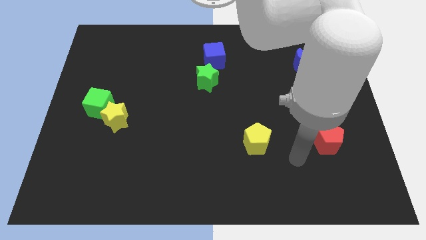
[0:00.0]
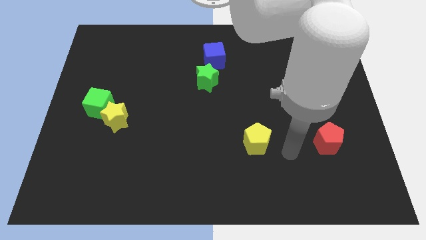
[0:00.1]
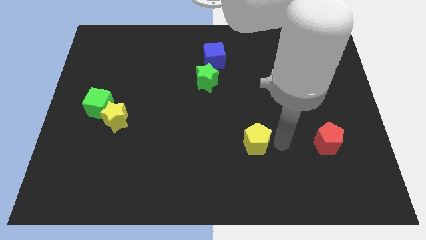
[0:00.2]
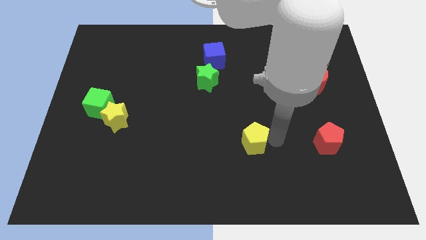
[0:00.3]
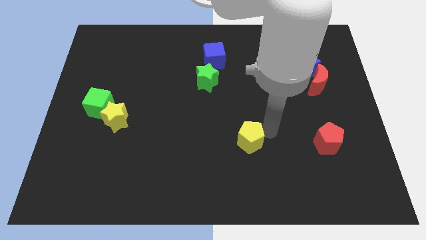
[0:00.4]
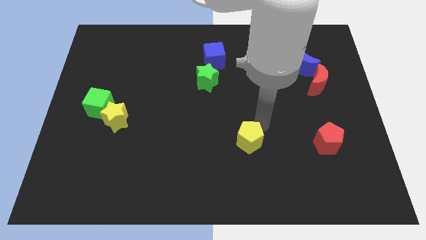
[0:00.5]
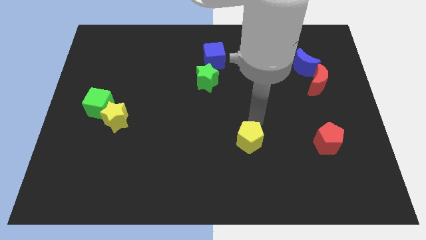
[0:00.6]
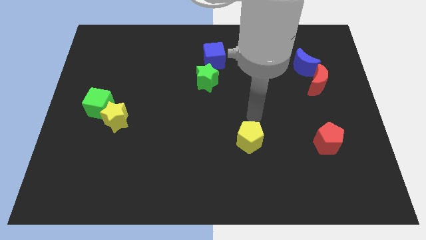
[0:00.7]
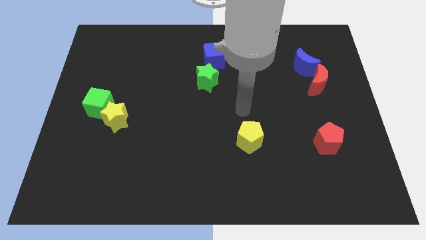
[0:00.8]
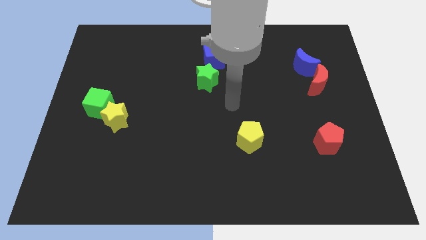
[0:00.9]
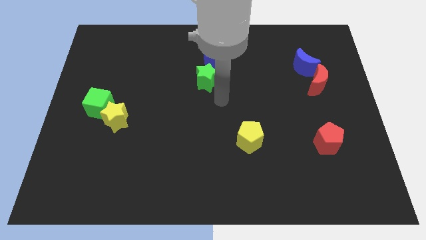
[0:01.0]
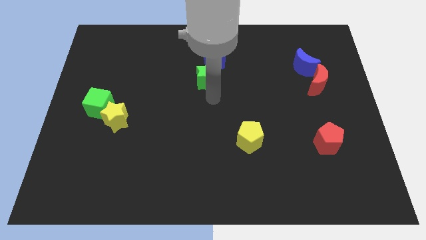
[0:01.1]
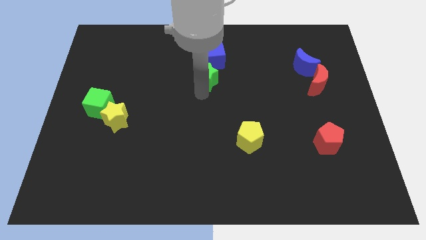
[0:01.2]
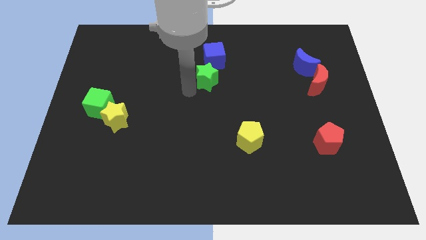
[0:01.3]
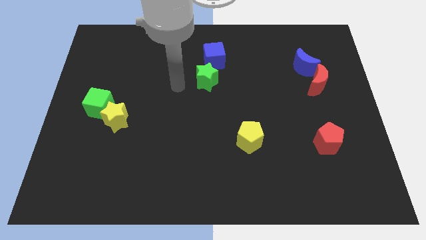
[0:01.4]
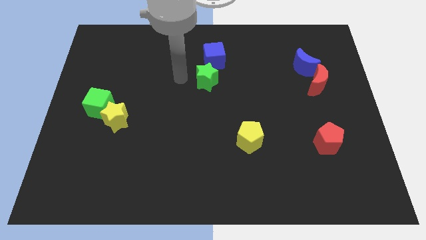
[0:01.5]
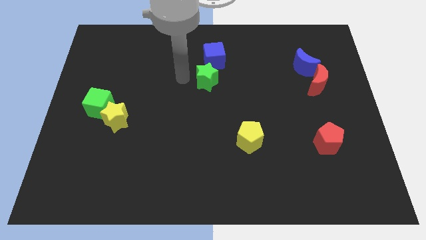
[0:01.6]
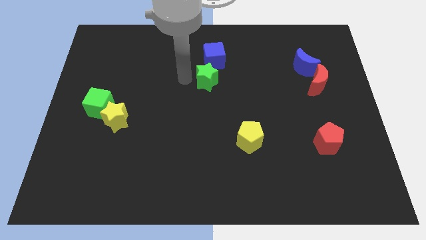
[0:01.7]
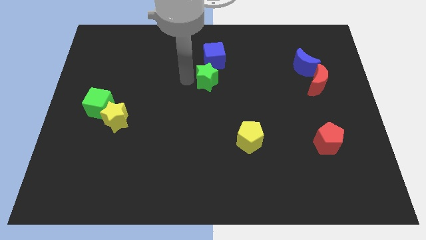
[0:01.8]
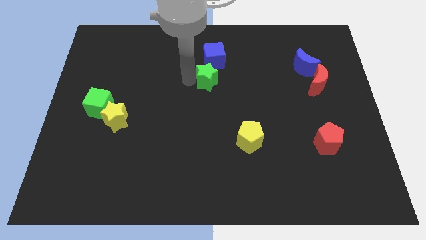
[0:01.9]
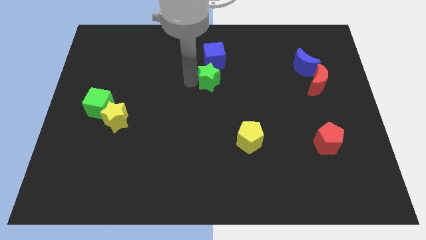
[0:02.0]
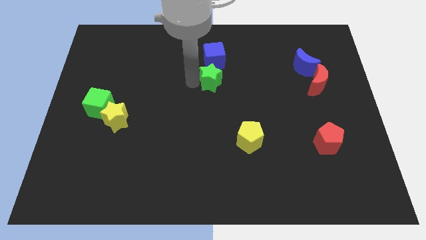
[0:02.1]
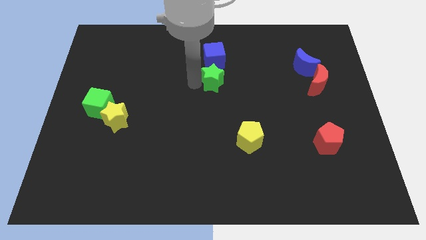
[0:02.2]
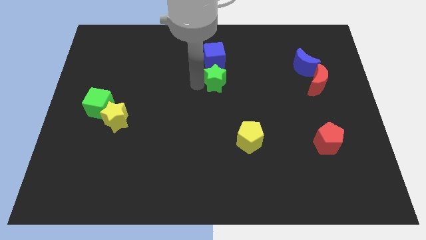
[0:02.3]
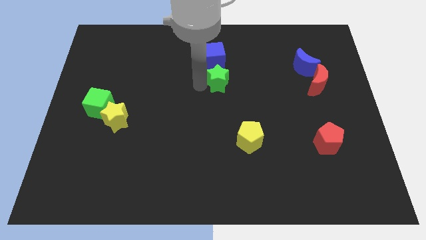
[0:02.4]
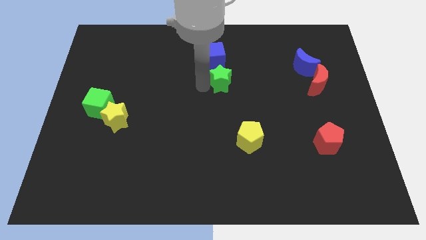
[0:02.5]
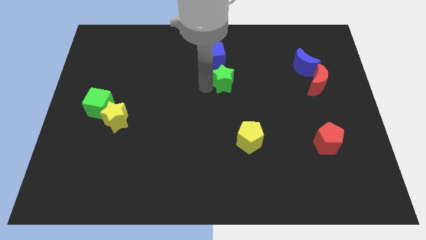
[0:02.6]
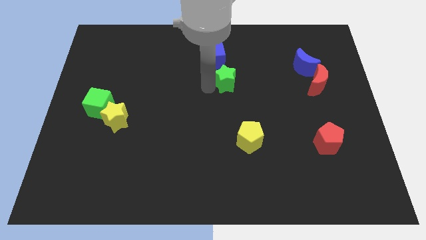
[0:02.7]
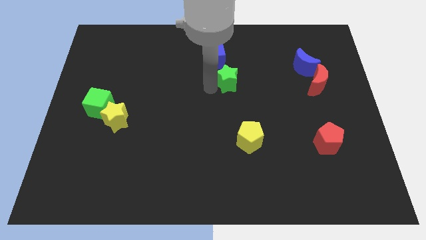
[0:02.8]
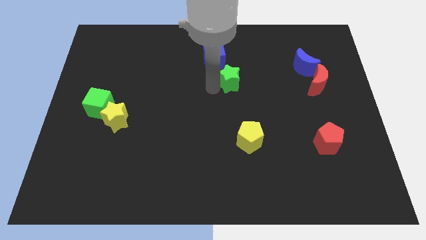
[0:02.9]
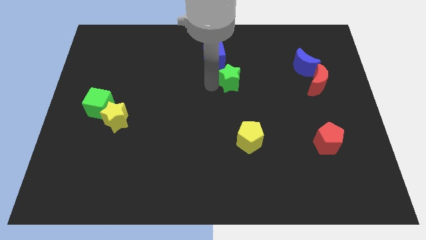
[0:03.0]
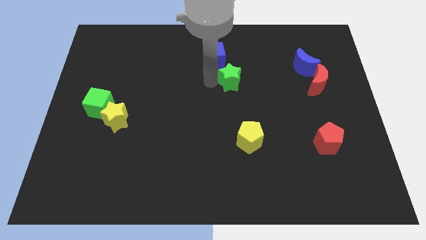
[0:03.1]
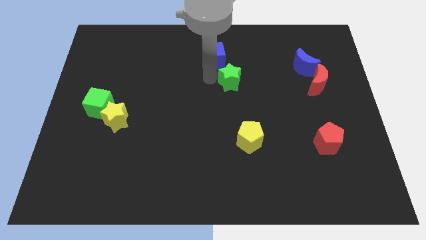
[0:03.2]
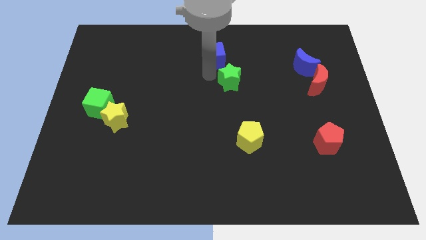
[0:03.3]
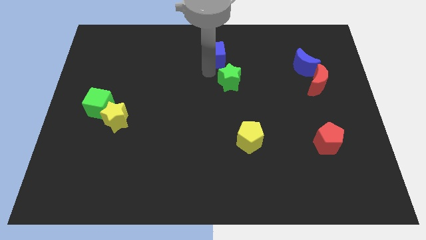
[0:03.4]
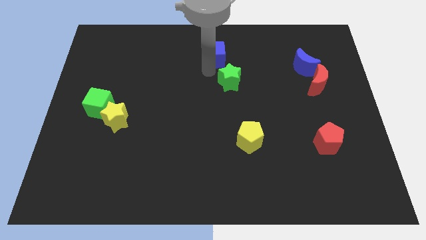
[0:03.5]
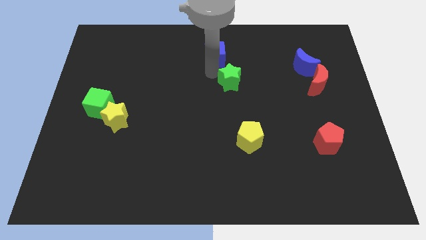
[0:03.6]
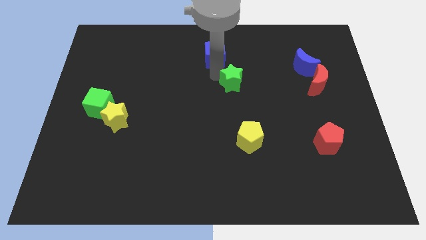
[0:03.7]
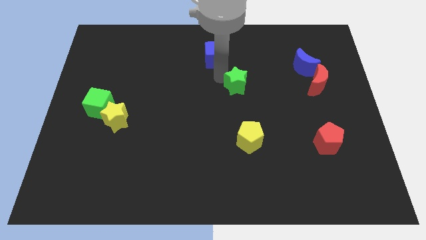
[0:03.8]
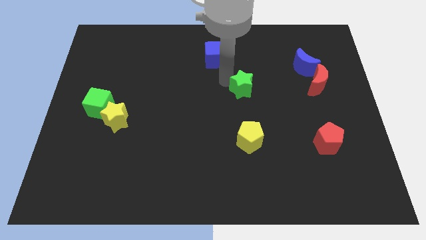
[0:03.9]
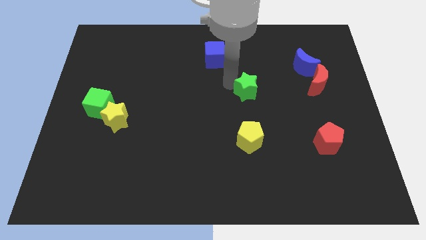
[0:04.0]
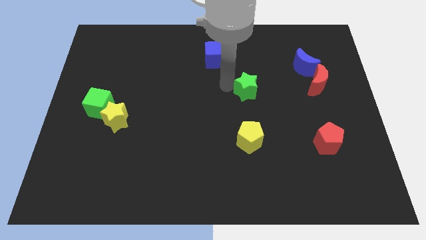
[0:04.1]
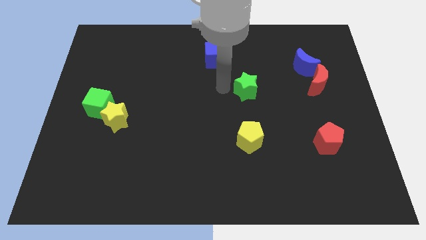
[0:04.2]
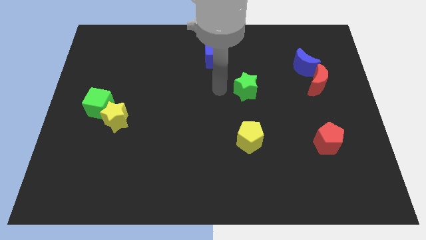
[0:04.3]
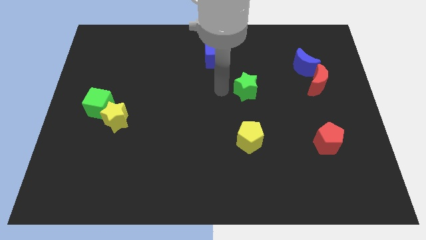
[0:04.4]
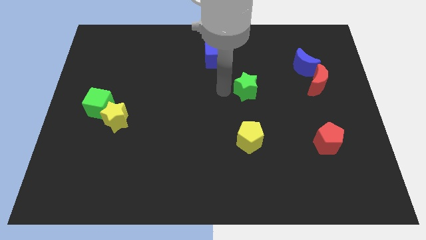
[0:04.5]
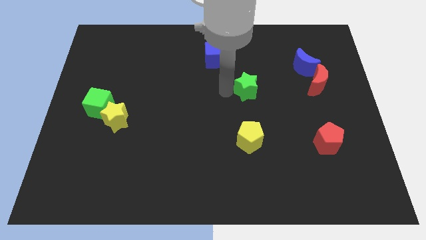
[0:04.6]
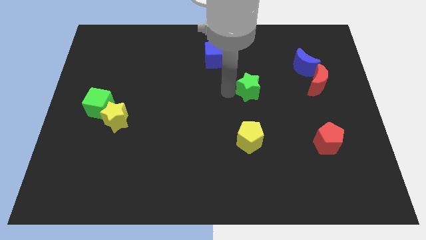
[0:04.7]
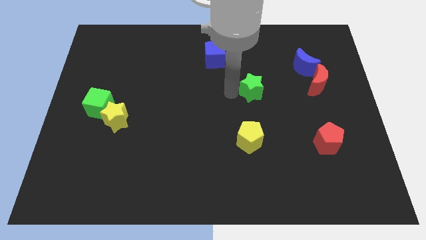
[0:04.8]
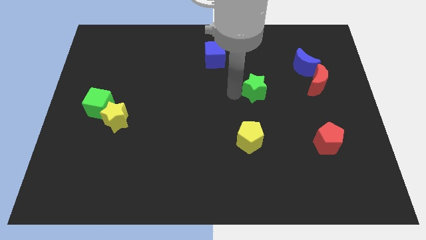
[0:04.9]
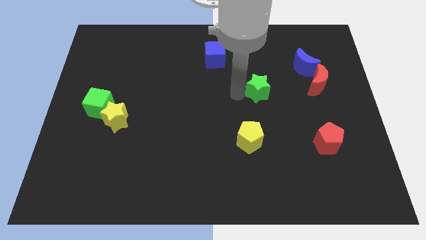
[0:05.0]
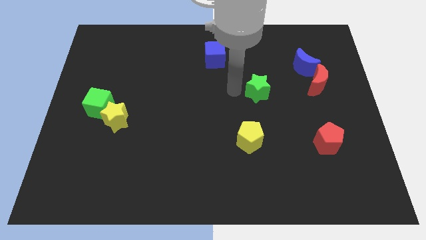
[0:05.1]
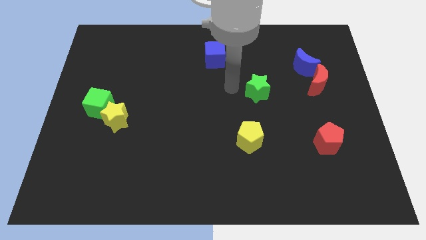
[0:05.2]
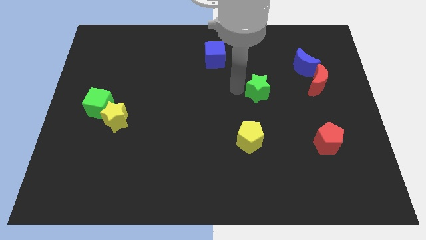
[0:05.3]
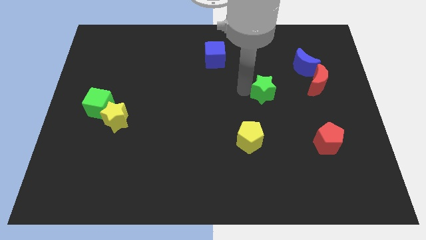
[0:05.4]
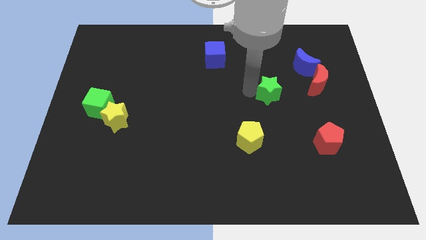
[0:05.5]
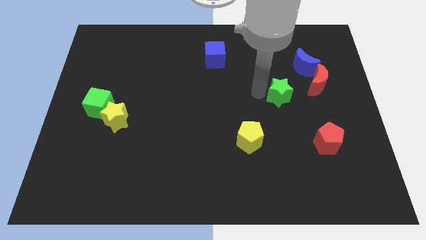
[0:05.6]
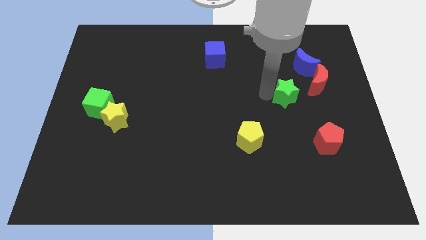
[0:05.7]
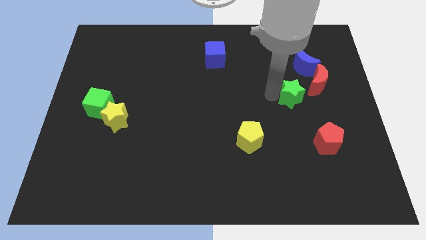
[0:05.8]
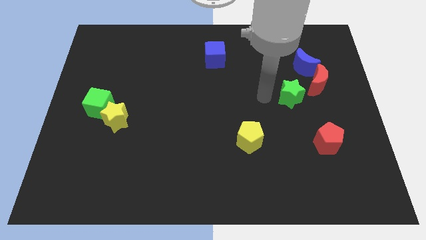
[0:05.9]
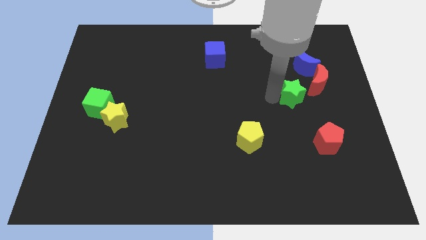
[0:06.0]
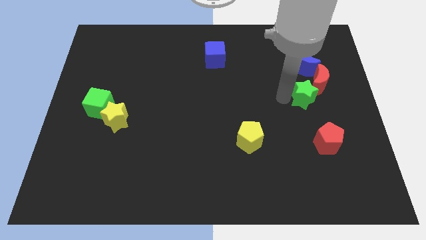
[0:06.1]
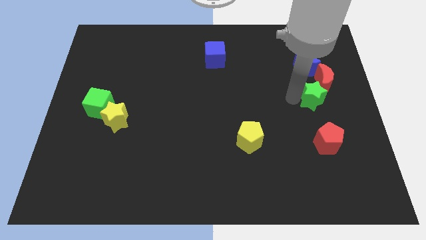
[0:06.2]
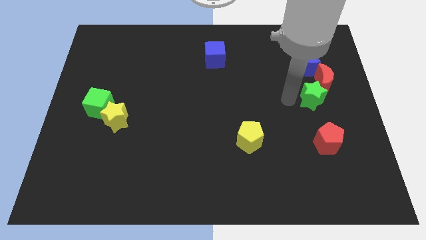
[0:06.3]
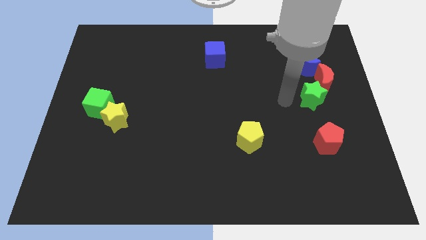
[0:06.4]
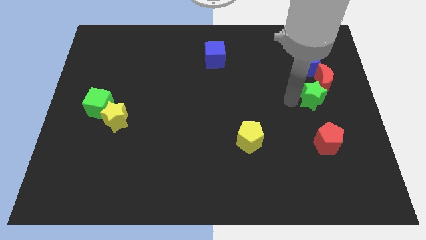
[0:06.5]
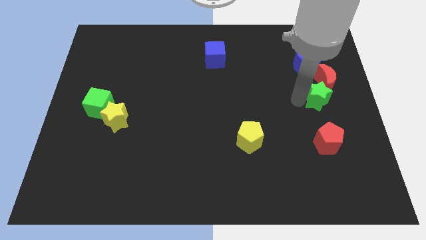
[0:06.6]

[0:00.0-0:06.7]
push the green star to the right side
